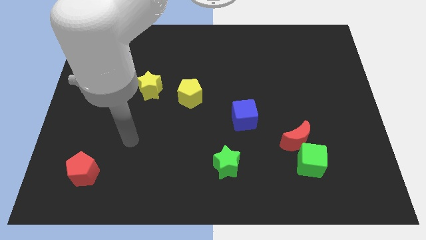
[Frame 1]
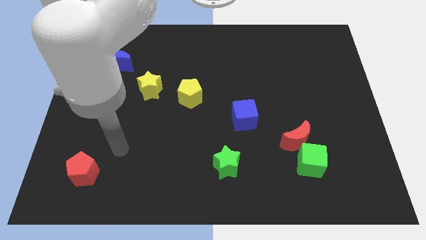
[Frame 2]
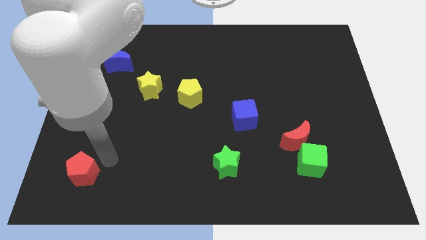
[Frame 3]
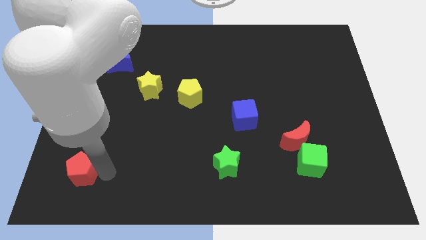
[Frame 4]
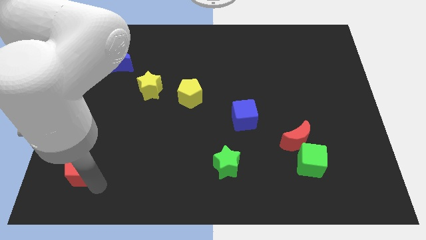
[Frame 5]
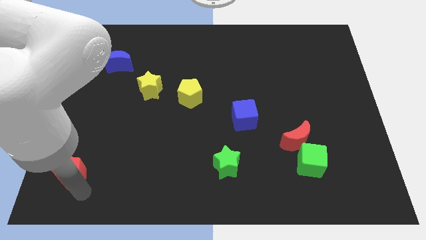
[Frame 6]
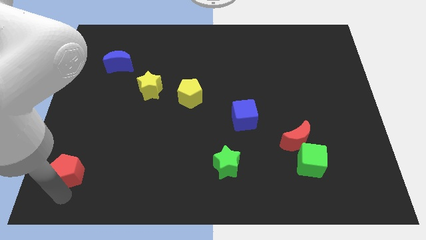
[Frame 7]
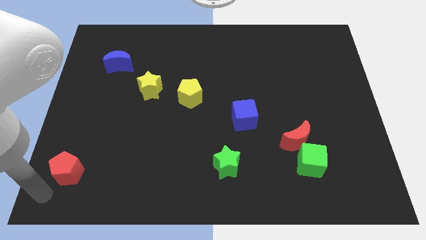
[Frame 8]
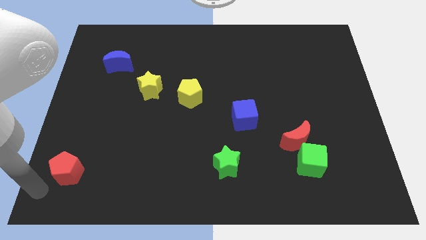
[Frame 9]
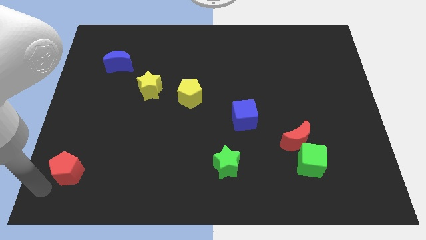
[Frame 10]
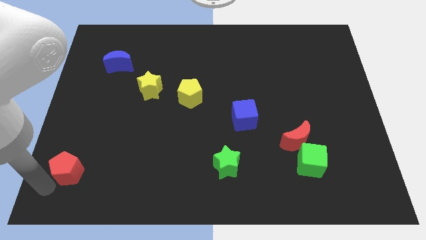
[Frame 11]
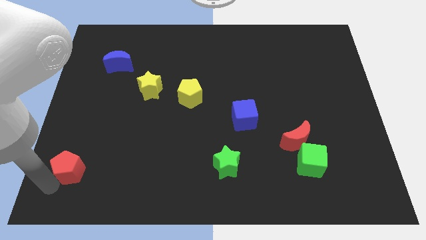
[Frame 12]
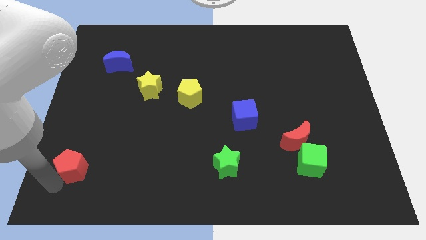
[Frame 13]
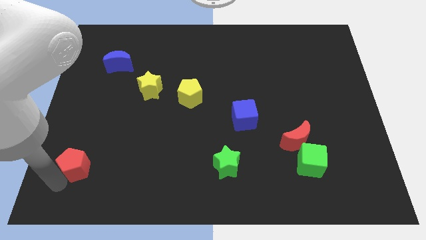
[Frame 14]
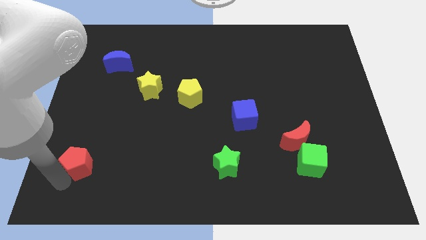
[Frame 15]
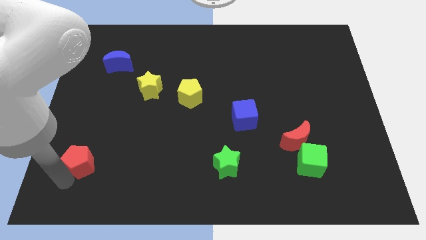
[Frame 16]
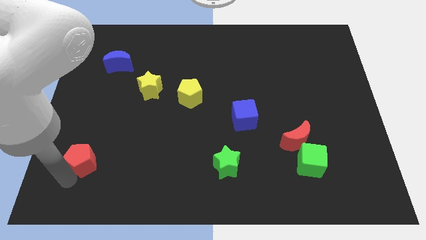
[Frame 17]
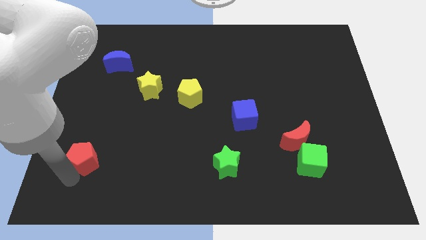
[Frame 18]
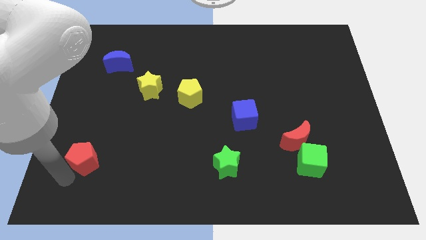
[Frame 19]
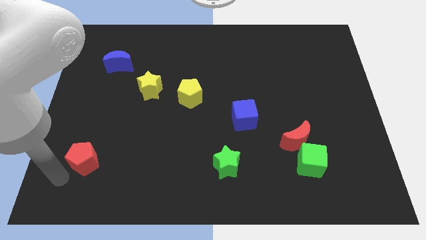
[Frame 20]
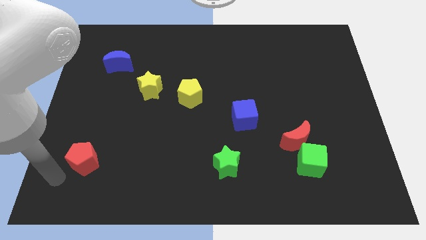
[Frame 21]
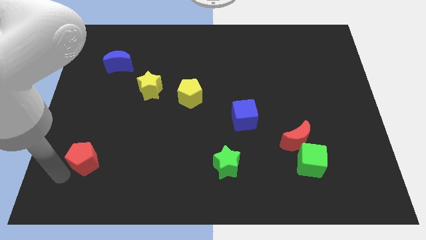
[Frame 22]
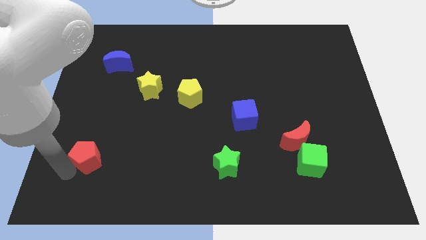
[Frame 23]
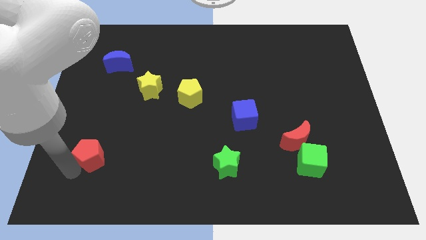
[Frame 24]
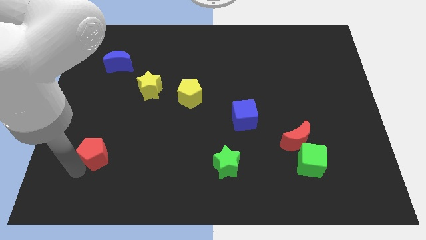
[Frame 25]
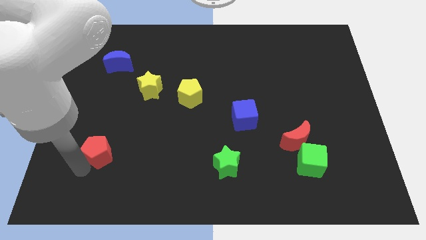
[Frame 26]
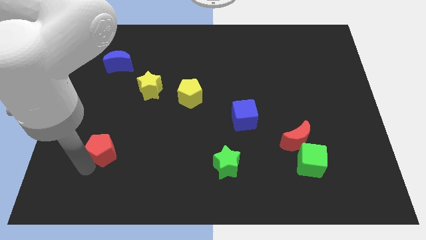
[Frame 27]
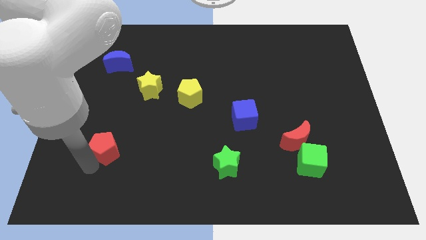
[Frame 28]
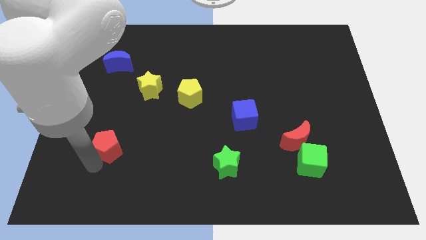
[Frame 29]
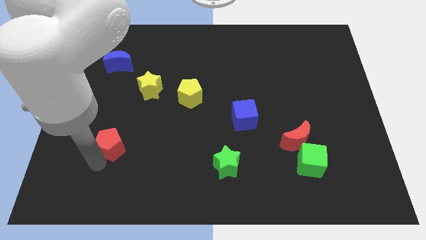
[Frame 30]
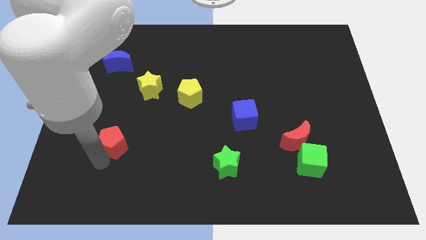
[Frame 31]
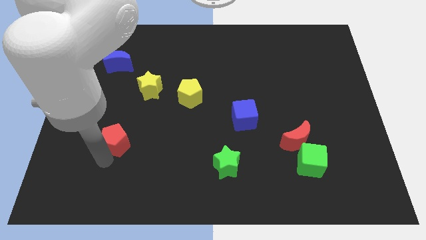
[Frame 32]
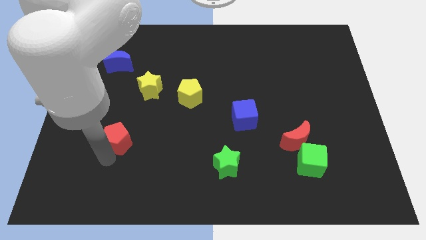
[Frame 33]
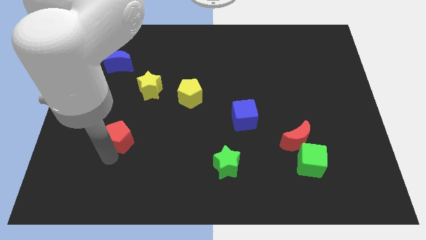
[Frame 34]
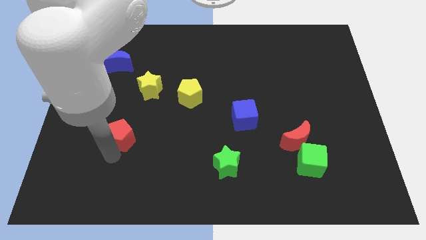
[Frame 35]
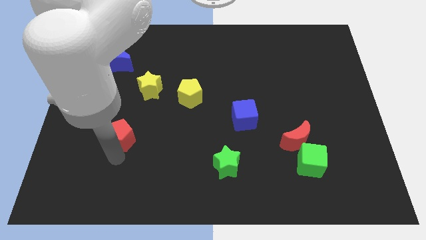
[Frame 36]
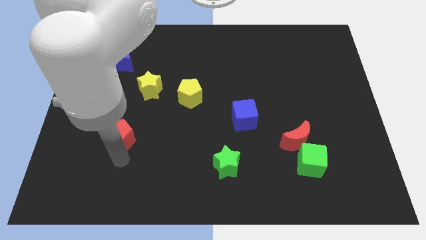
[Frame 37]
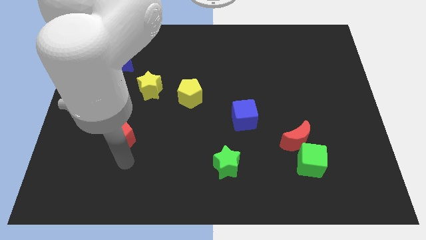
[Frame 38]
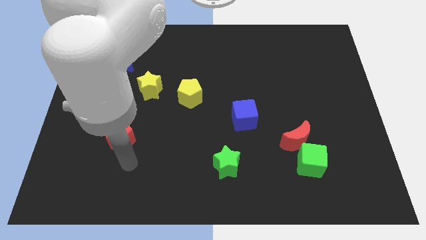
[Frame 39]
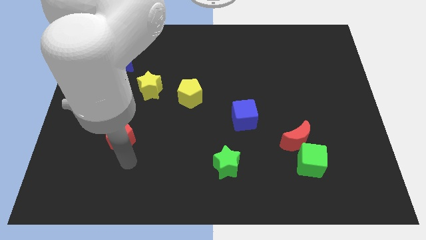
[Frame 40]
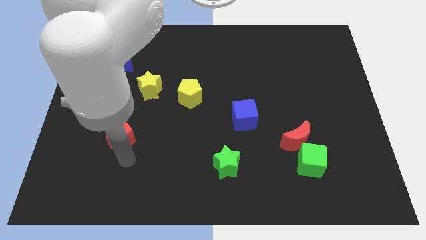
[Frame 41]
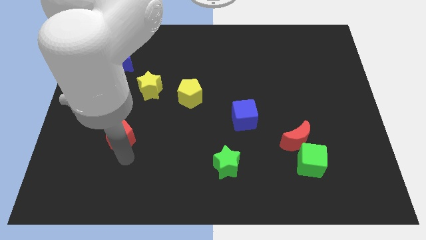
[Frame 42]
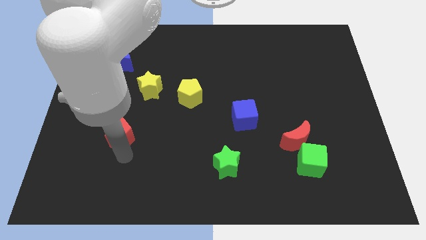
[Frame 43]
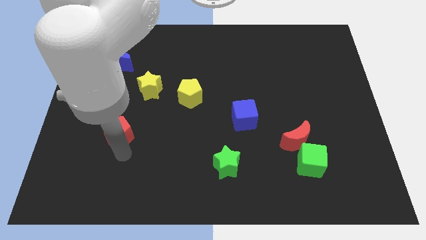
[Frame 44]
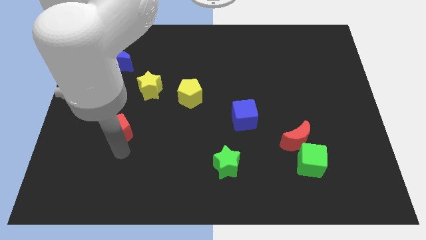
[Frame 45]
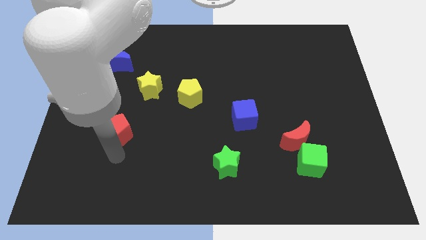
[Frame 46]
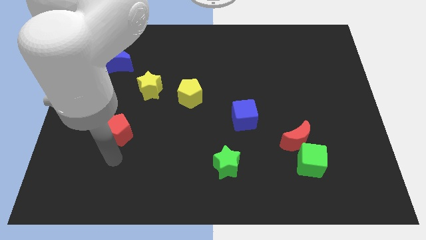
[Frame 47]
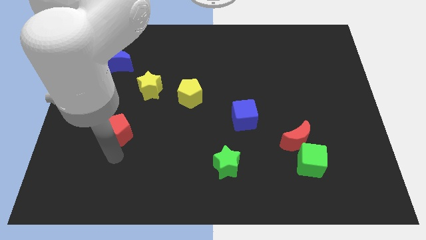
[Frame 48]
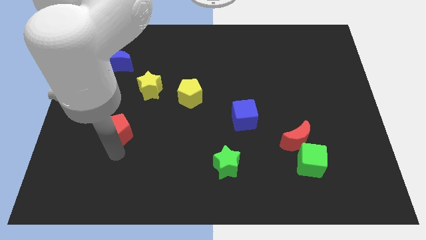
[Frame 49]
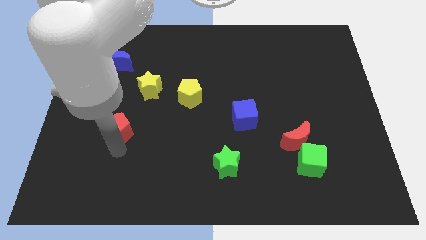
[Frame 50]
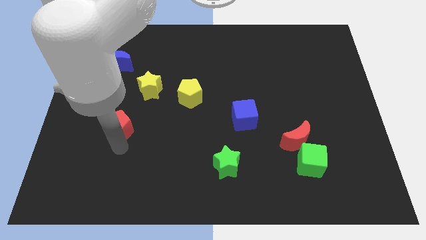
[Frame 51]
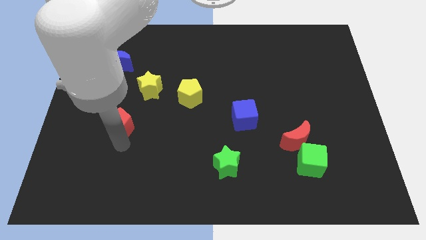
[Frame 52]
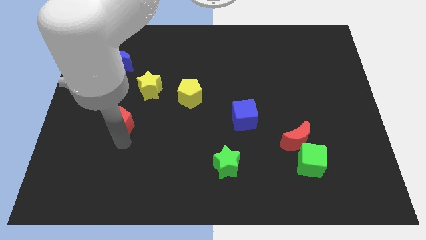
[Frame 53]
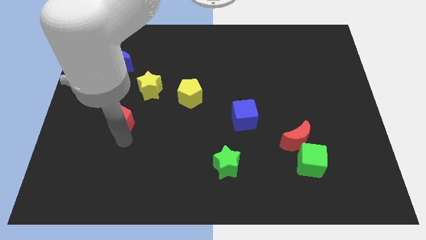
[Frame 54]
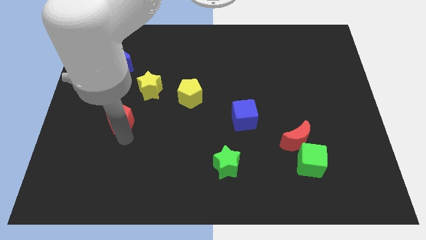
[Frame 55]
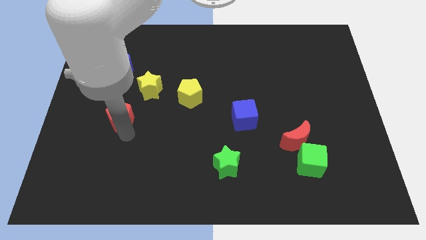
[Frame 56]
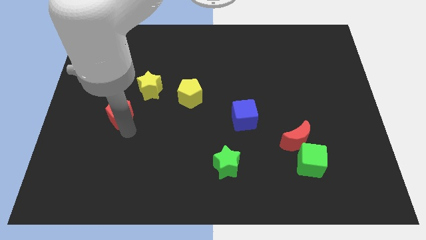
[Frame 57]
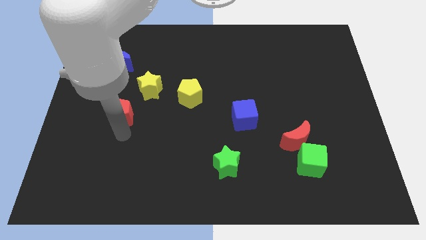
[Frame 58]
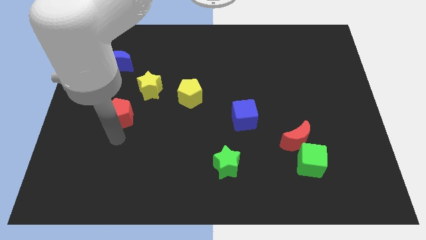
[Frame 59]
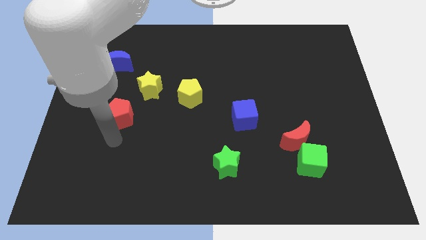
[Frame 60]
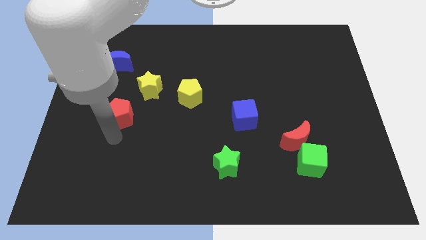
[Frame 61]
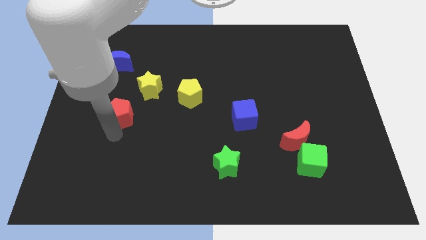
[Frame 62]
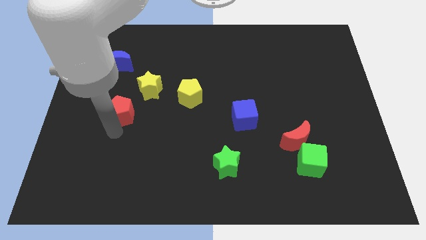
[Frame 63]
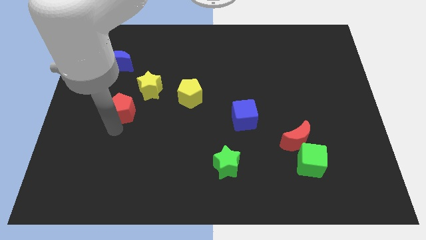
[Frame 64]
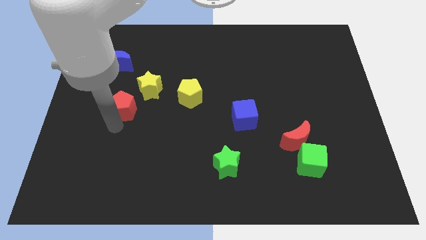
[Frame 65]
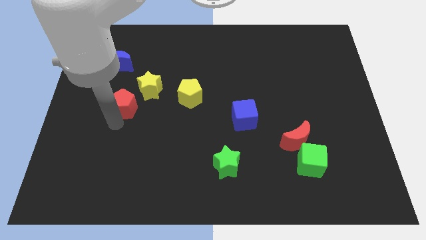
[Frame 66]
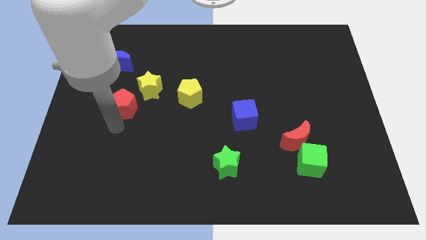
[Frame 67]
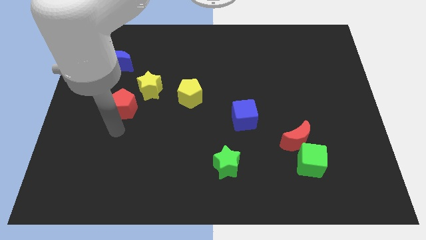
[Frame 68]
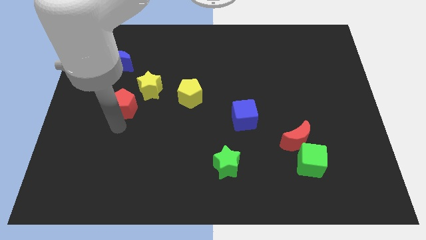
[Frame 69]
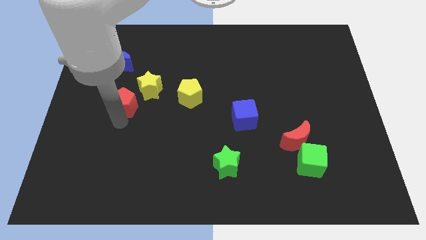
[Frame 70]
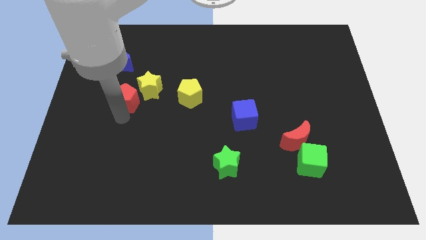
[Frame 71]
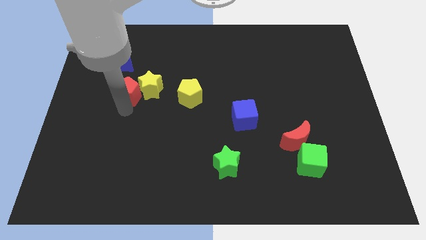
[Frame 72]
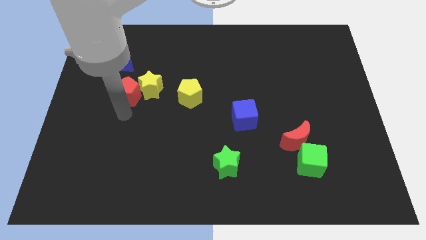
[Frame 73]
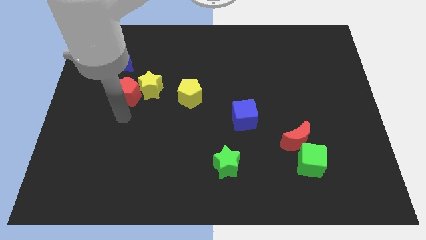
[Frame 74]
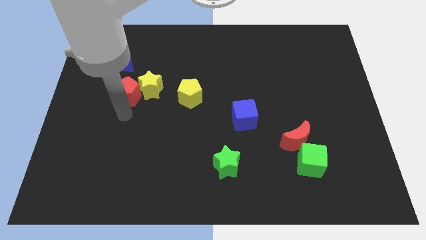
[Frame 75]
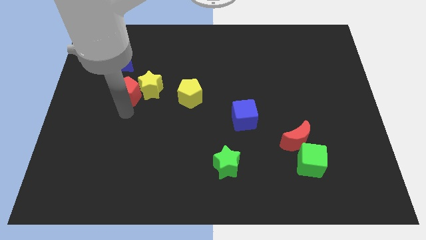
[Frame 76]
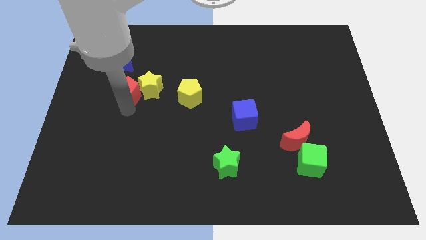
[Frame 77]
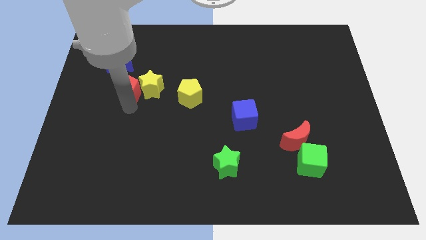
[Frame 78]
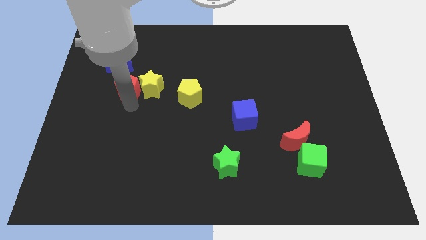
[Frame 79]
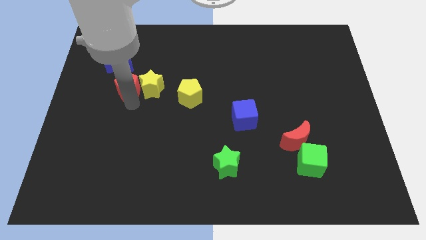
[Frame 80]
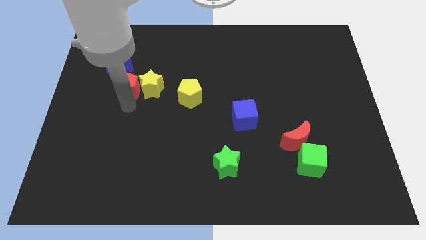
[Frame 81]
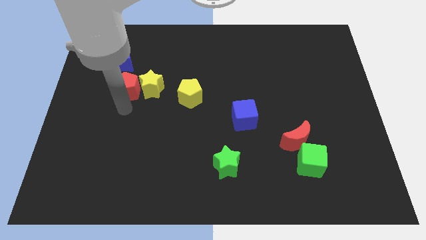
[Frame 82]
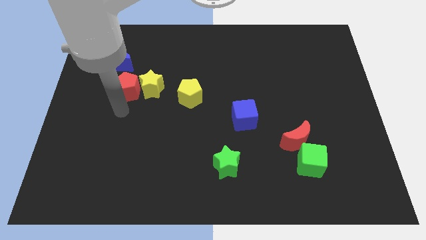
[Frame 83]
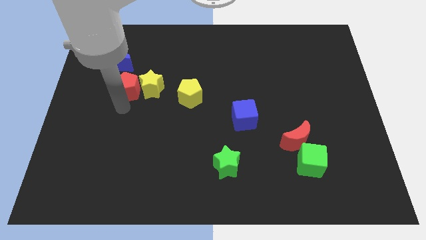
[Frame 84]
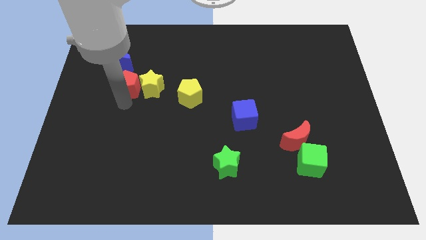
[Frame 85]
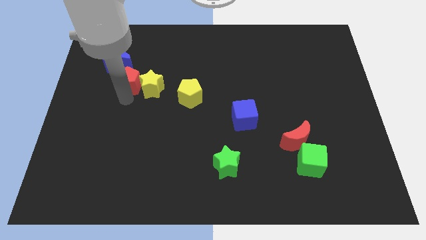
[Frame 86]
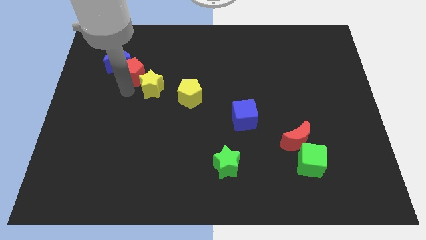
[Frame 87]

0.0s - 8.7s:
put the red pentagon above the yellow star
